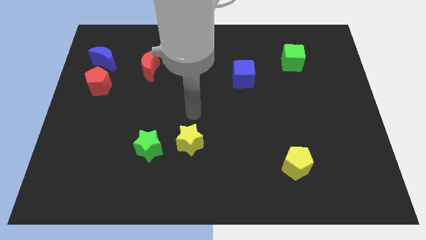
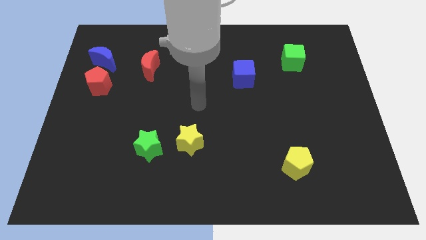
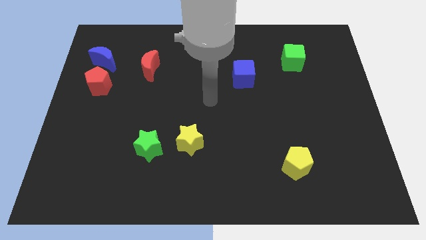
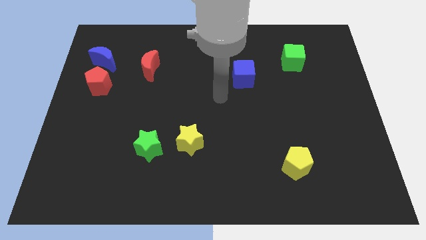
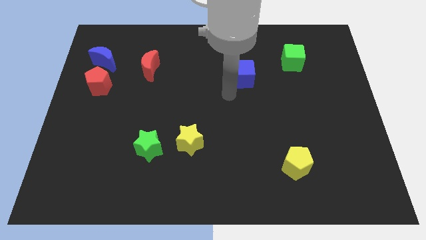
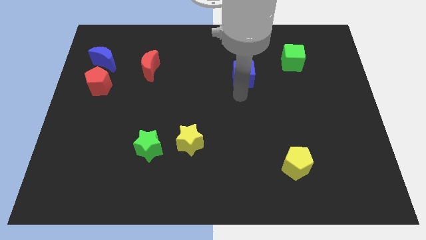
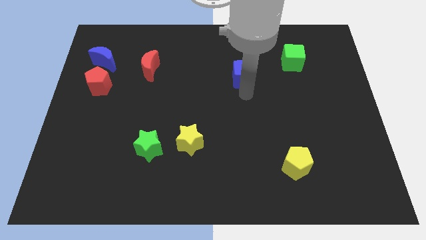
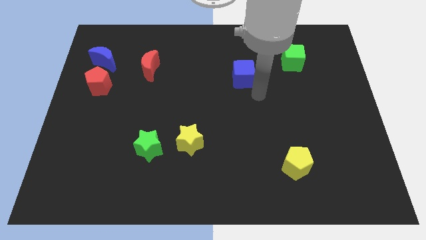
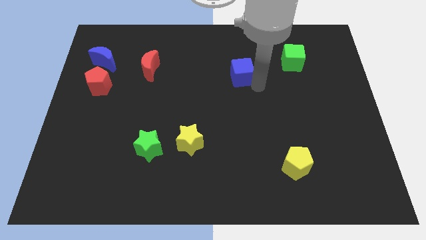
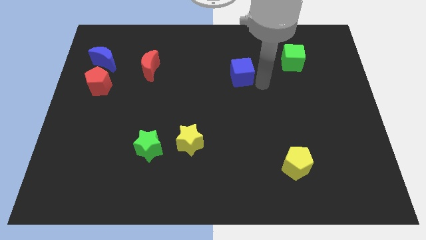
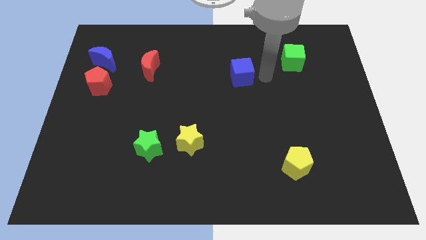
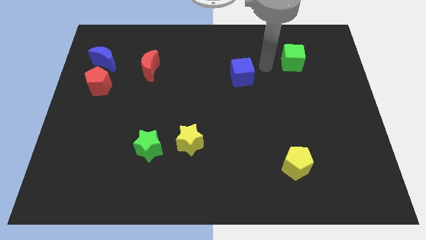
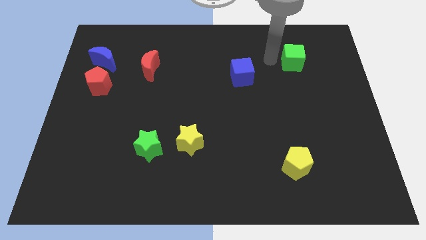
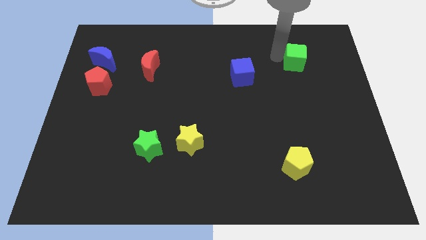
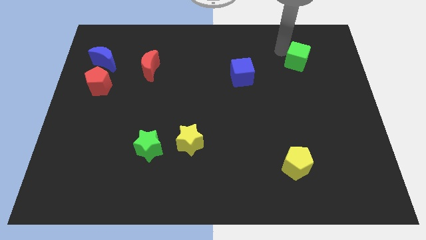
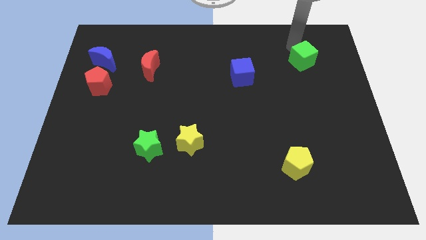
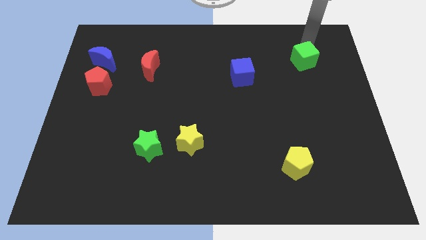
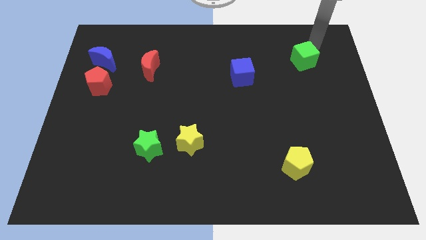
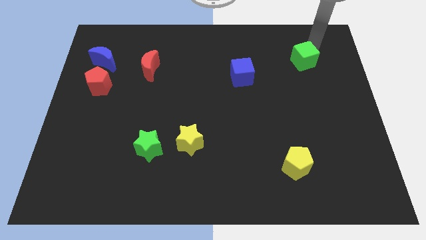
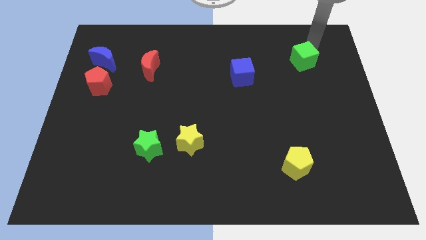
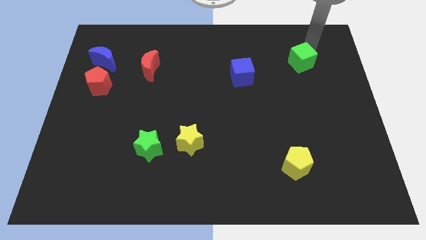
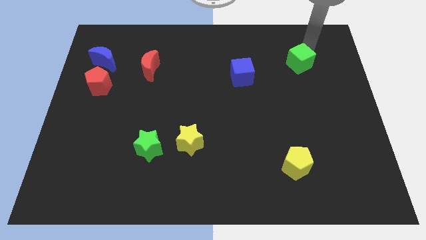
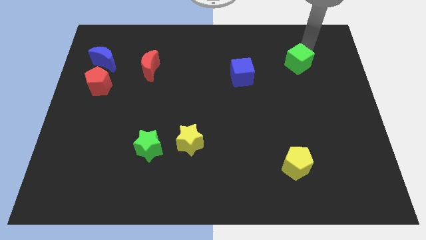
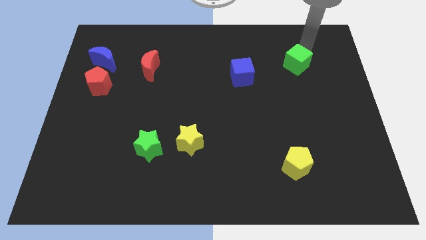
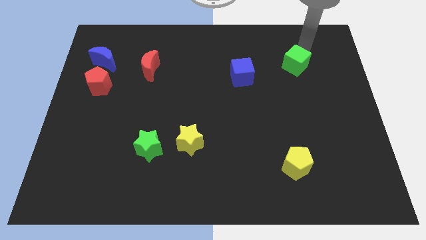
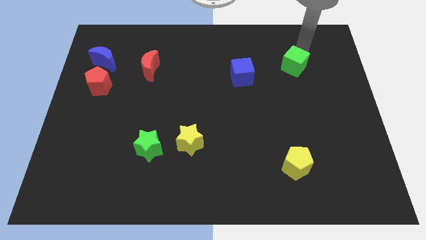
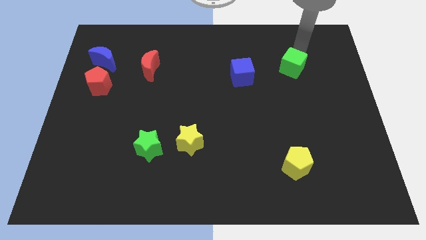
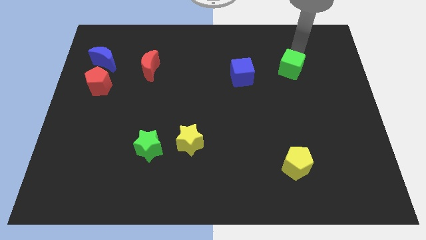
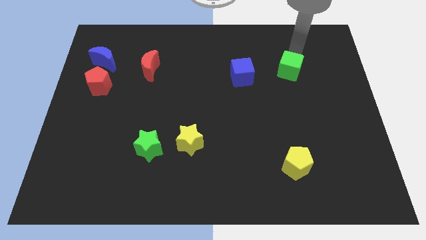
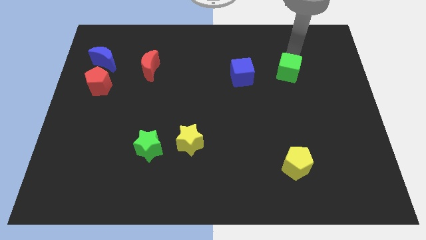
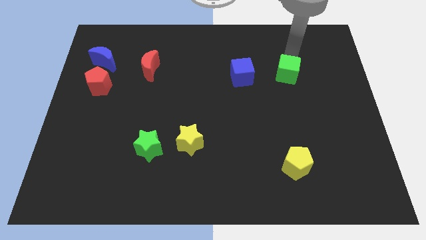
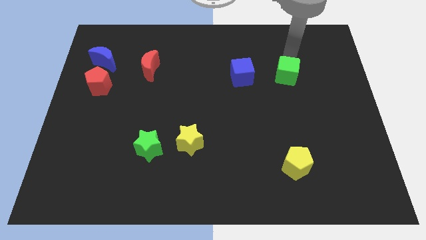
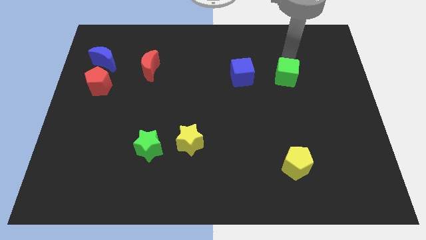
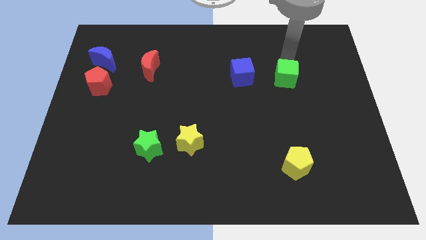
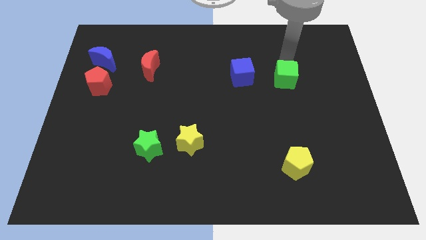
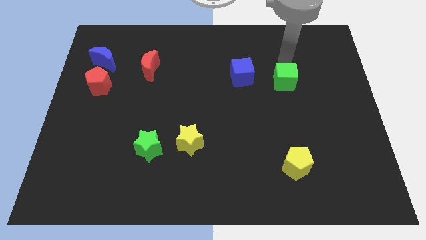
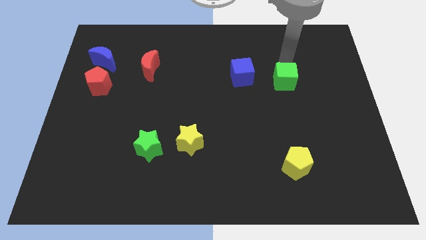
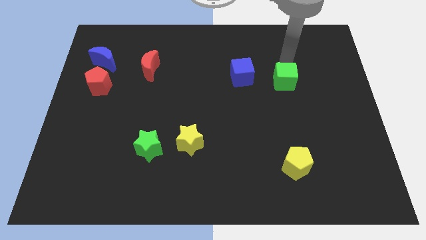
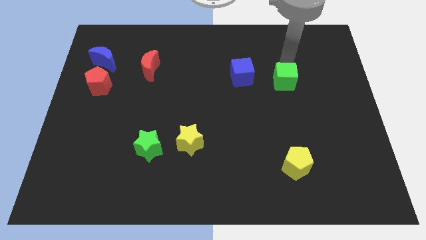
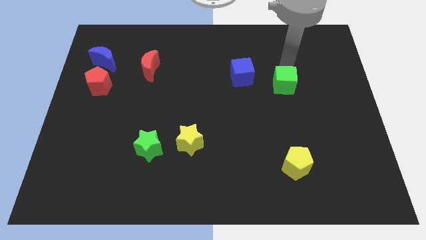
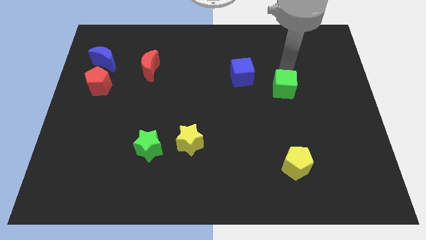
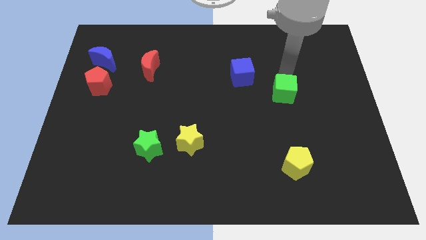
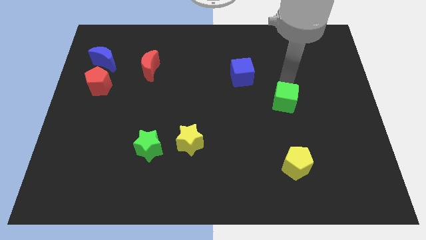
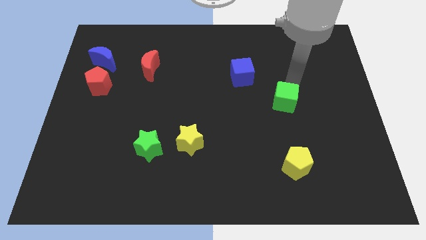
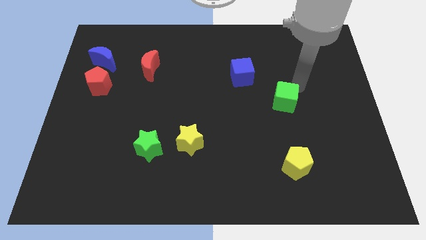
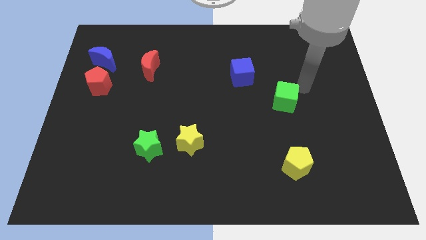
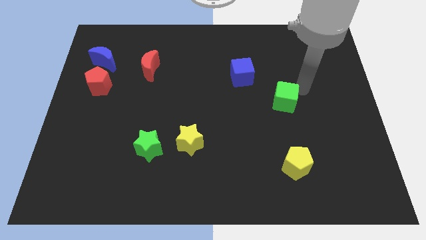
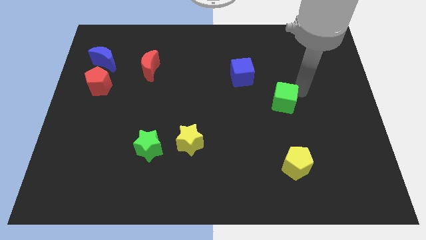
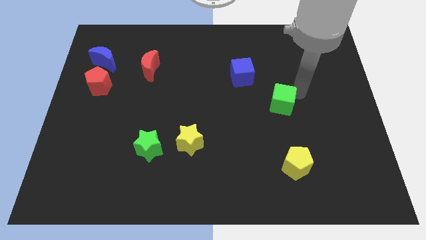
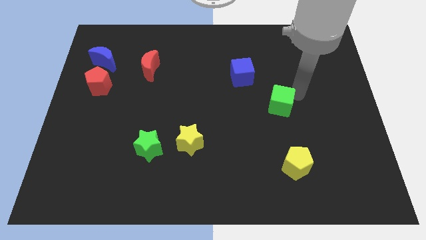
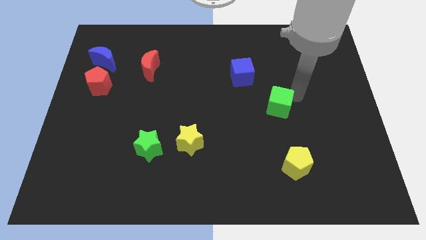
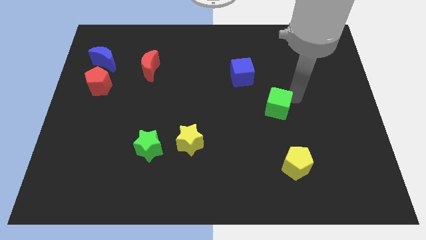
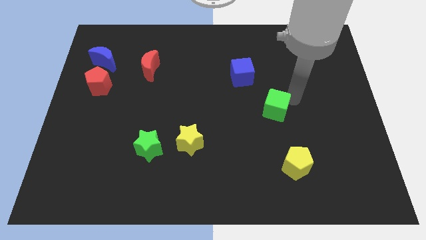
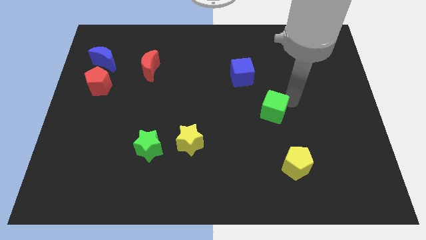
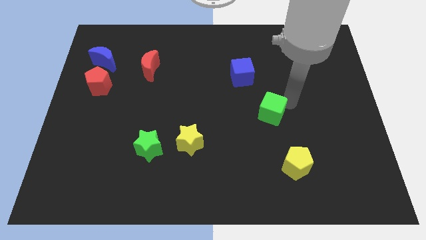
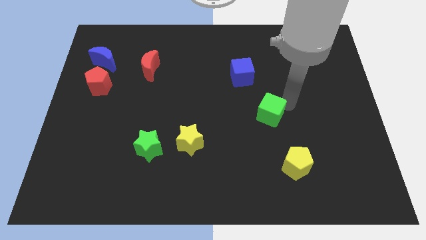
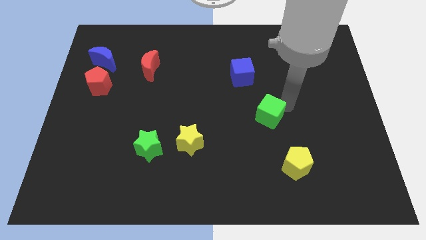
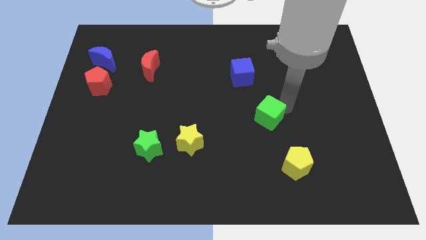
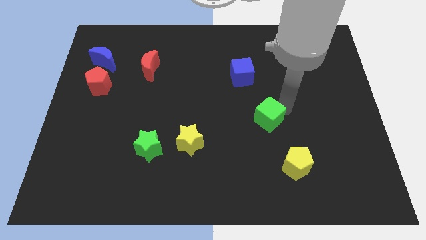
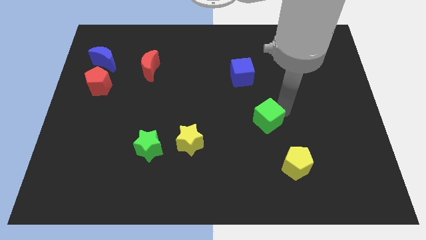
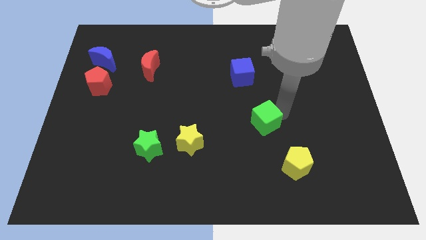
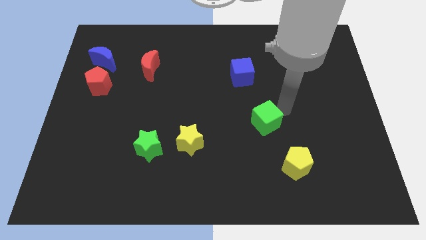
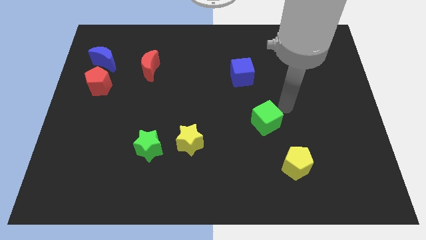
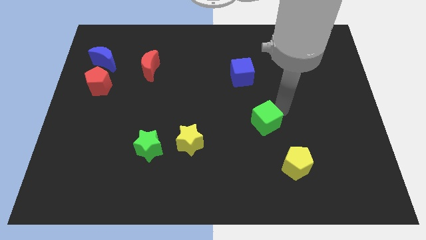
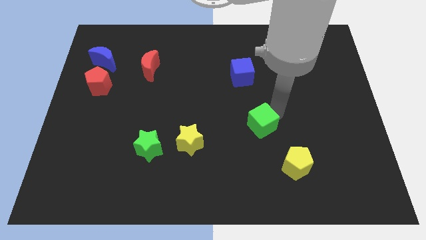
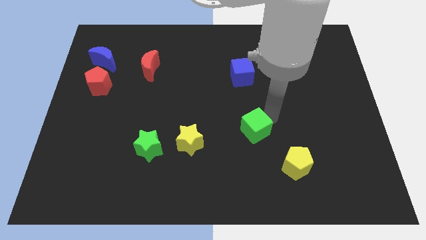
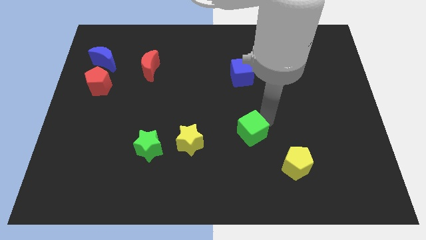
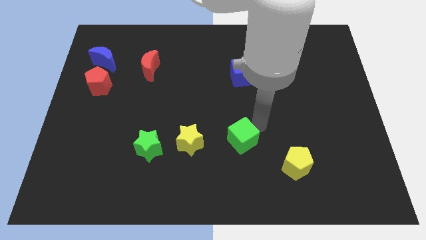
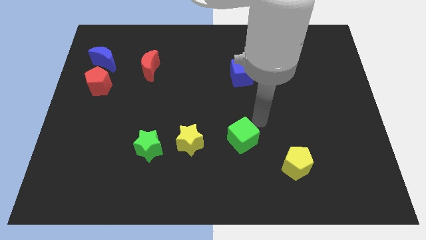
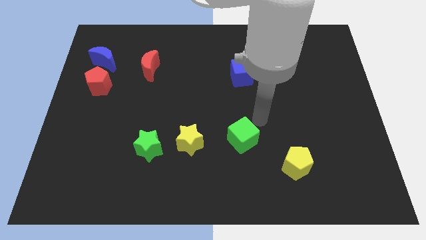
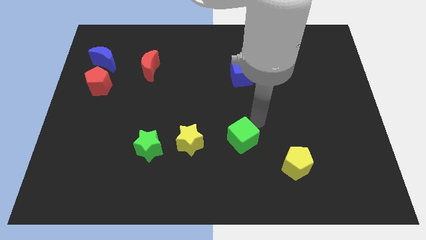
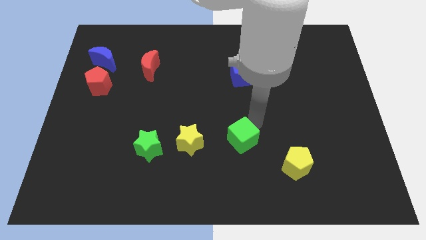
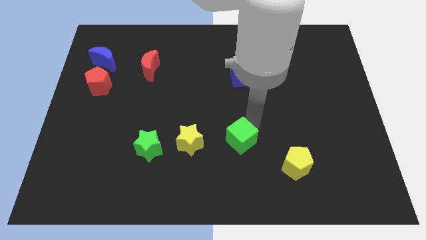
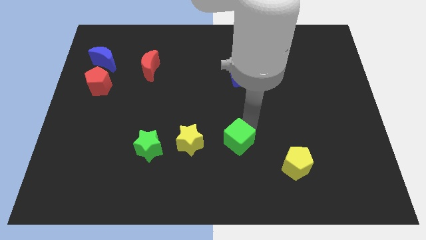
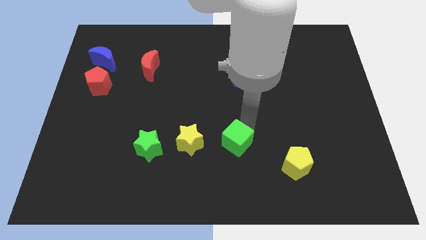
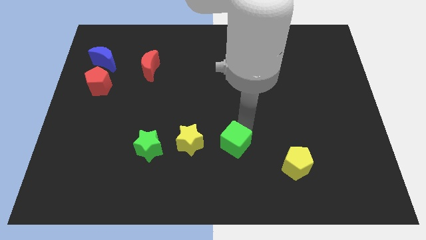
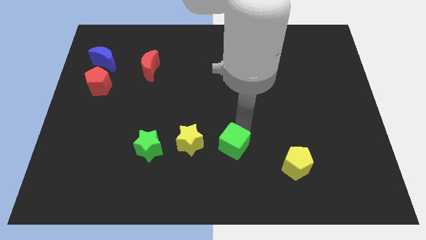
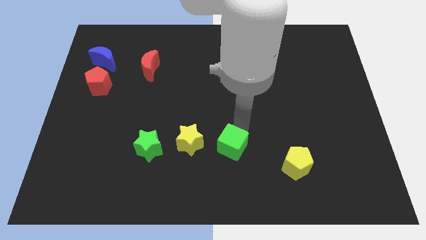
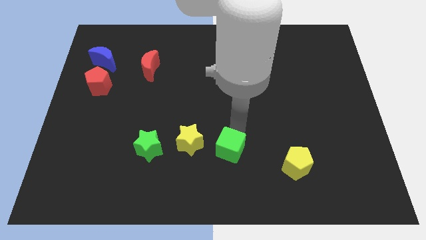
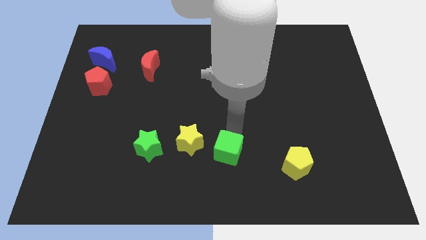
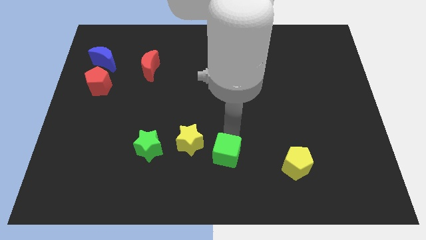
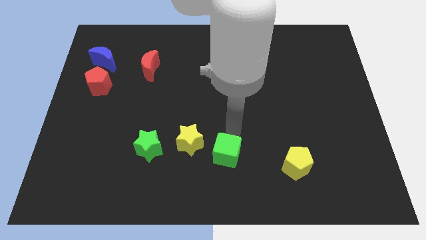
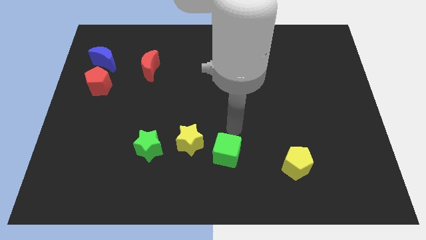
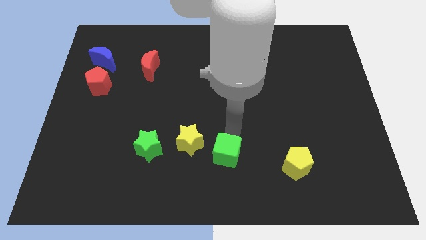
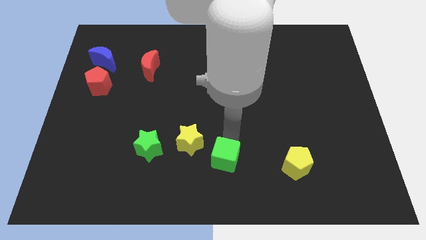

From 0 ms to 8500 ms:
put the green cube to the bottom side
